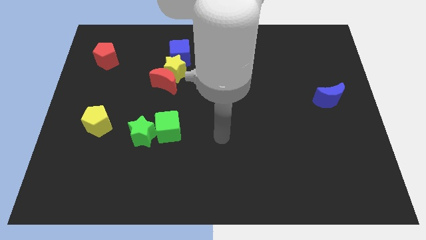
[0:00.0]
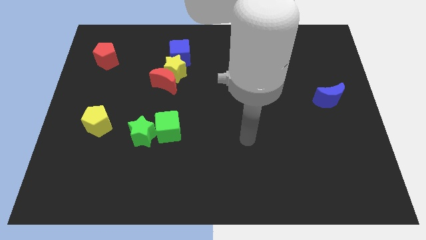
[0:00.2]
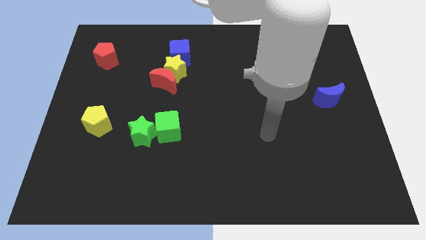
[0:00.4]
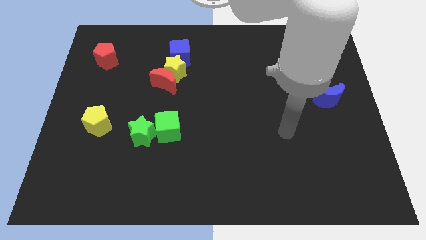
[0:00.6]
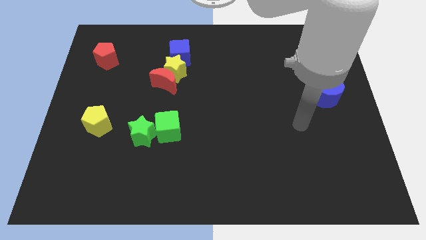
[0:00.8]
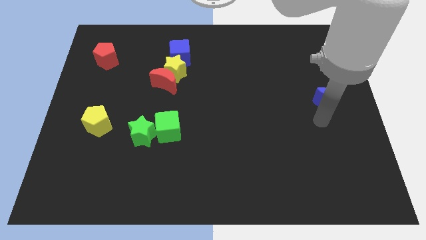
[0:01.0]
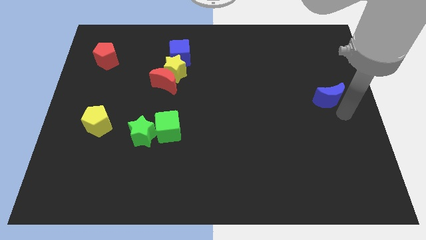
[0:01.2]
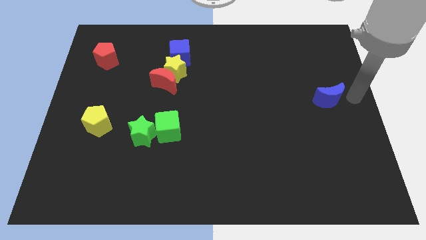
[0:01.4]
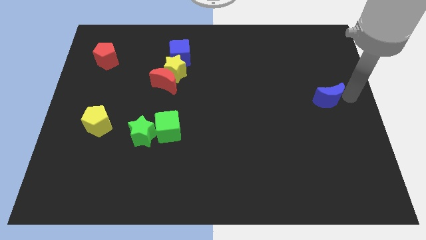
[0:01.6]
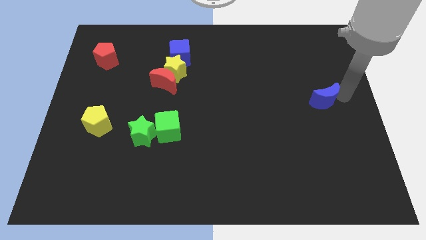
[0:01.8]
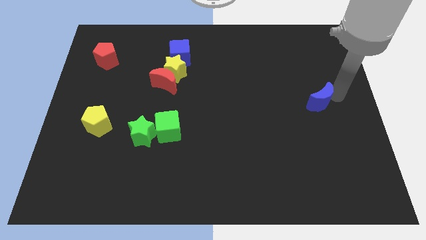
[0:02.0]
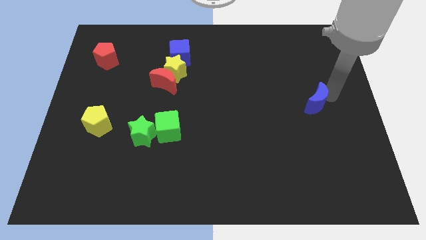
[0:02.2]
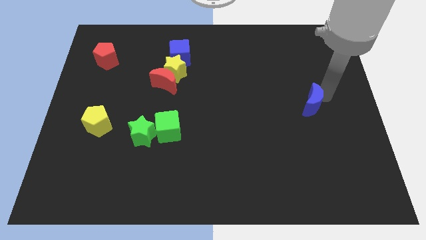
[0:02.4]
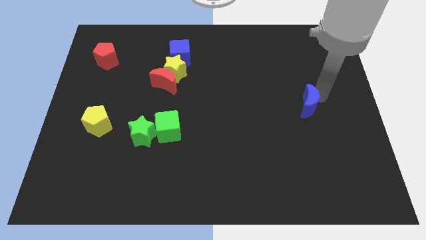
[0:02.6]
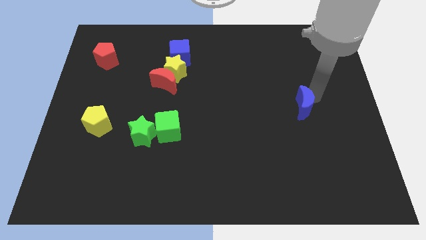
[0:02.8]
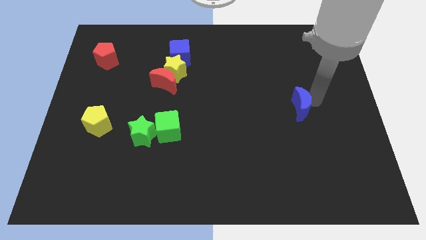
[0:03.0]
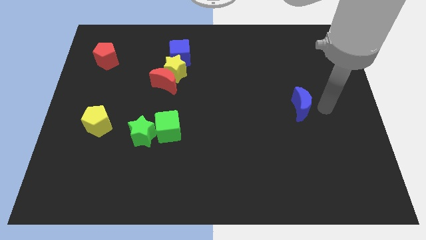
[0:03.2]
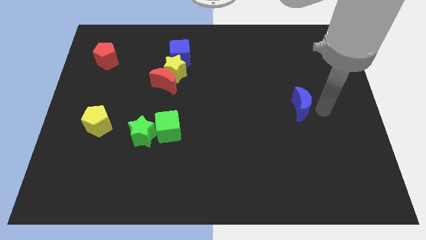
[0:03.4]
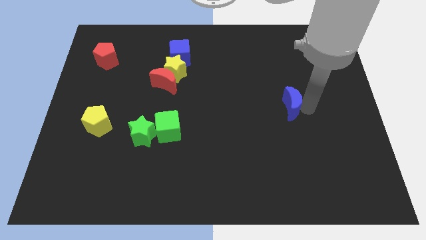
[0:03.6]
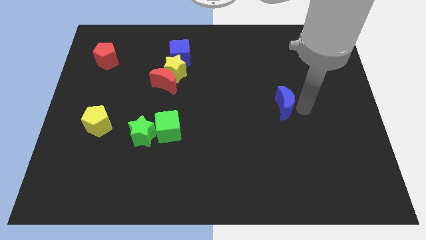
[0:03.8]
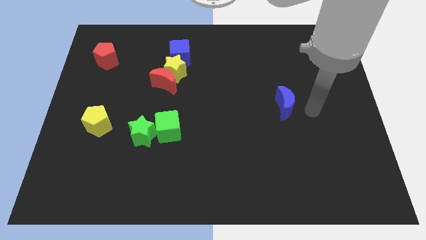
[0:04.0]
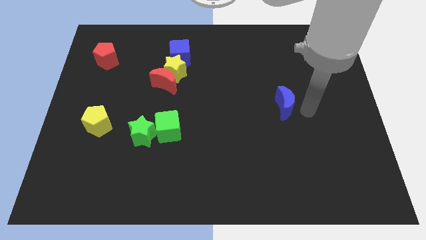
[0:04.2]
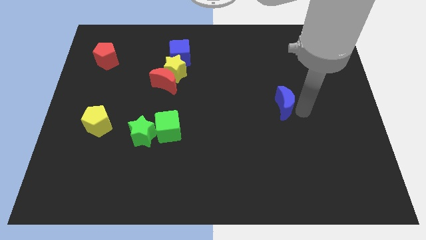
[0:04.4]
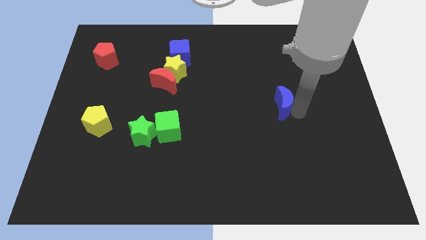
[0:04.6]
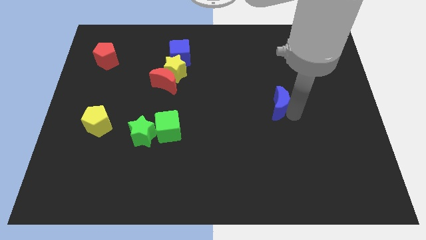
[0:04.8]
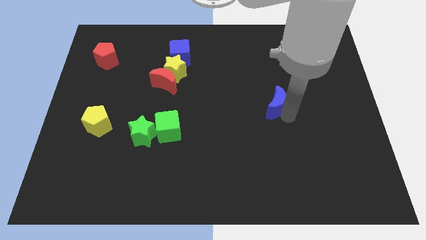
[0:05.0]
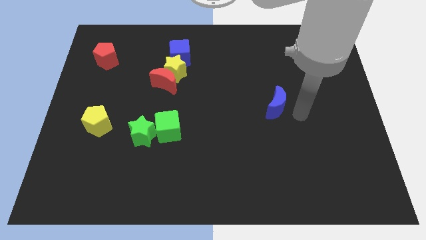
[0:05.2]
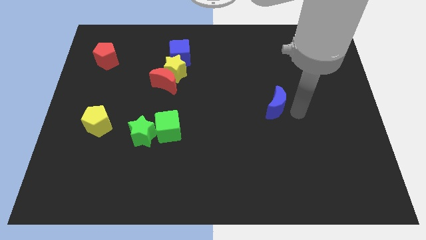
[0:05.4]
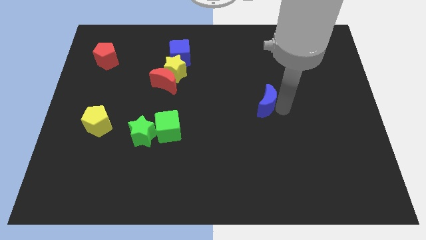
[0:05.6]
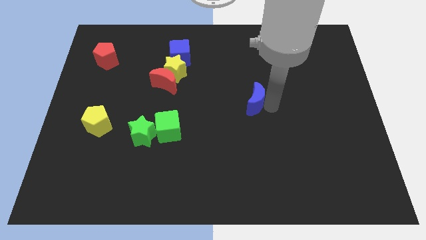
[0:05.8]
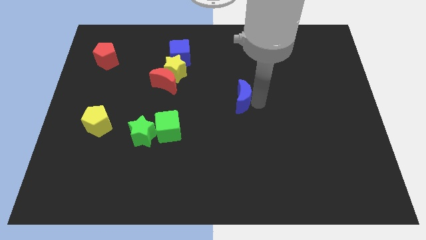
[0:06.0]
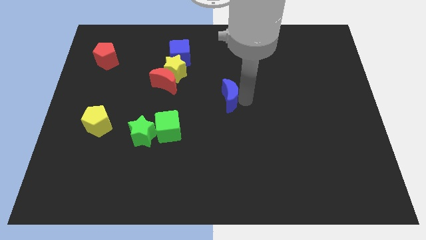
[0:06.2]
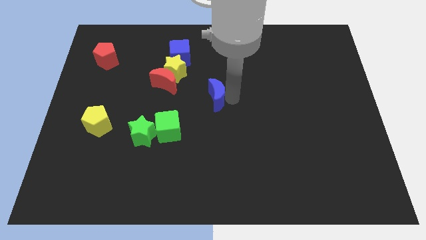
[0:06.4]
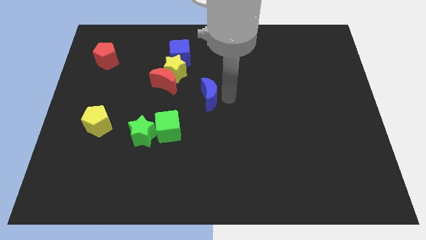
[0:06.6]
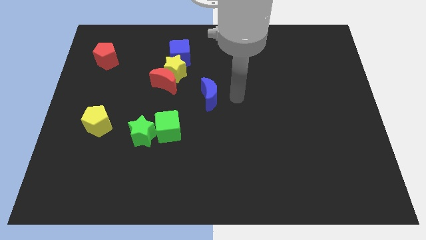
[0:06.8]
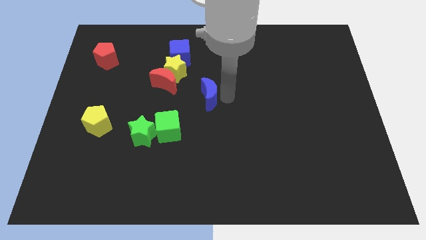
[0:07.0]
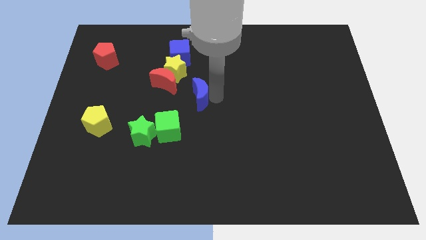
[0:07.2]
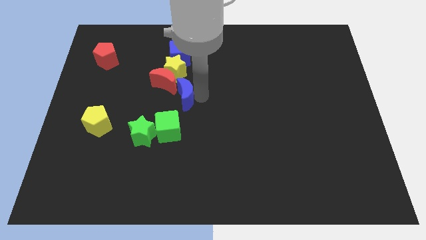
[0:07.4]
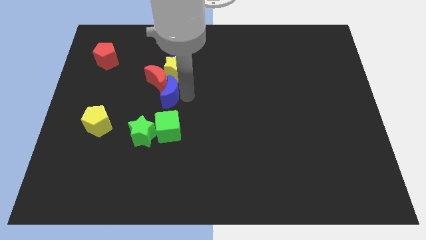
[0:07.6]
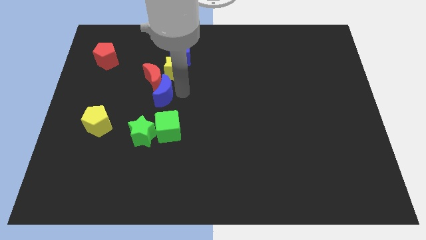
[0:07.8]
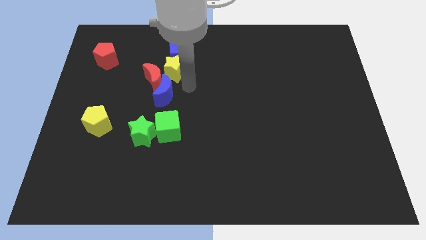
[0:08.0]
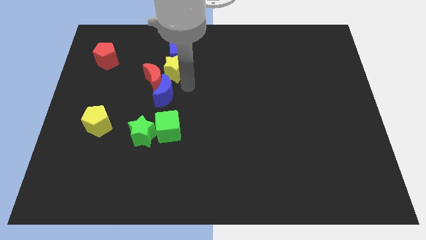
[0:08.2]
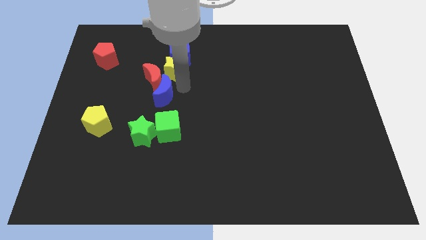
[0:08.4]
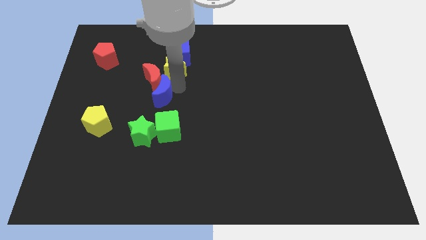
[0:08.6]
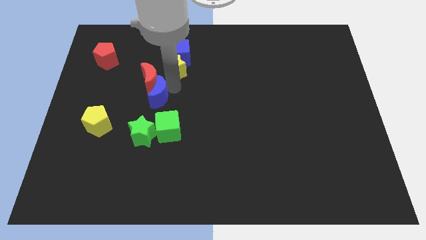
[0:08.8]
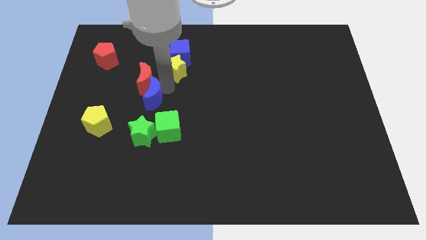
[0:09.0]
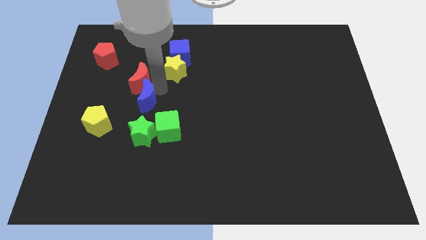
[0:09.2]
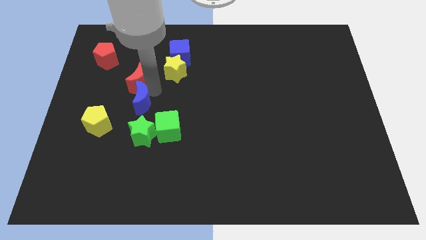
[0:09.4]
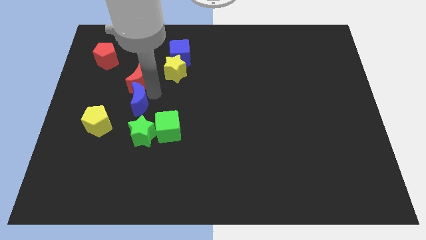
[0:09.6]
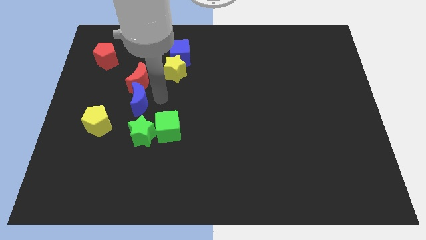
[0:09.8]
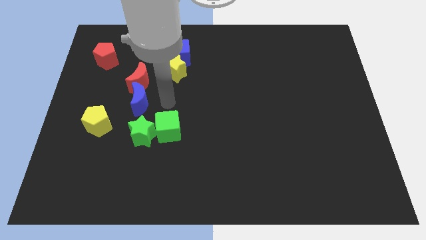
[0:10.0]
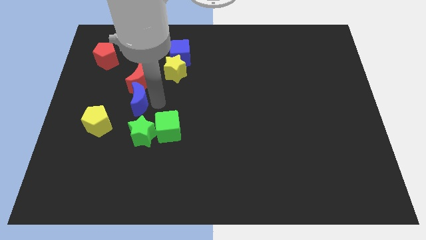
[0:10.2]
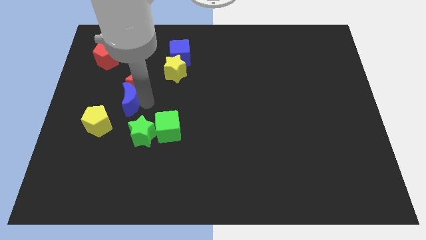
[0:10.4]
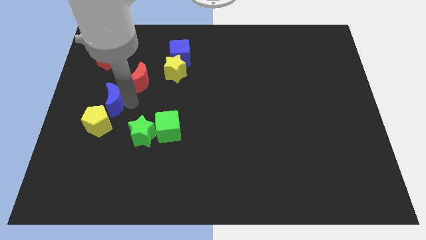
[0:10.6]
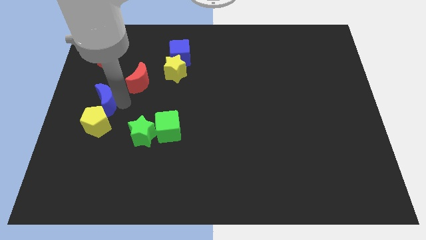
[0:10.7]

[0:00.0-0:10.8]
push the blue moon to the center left

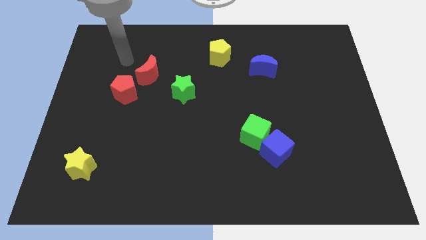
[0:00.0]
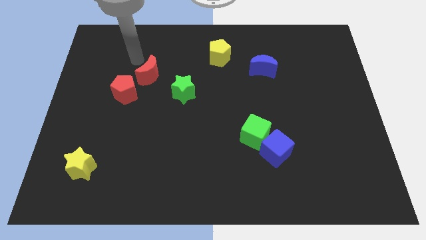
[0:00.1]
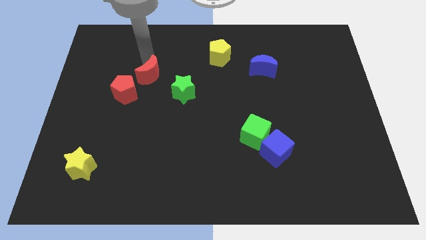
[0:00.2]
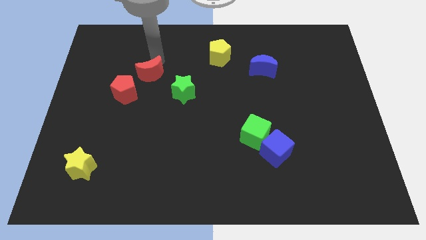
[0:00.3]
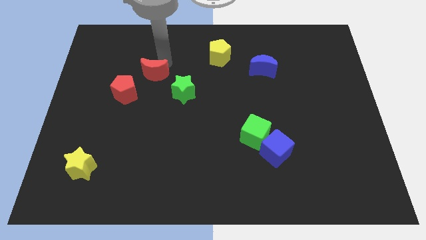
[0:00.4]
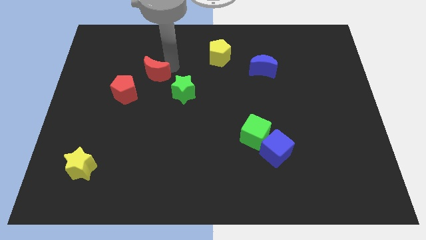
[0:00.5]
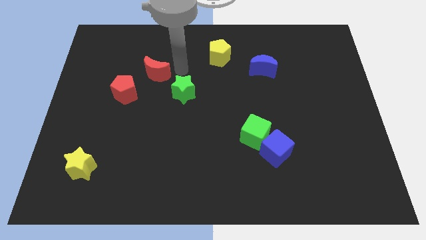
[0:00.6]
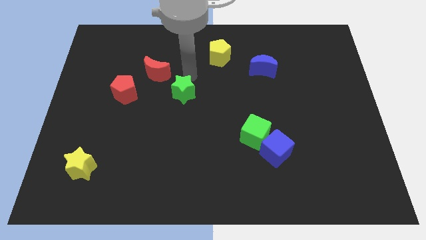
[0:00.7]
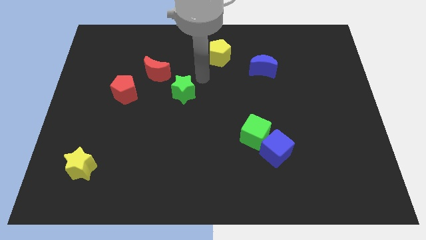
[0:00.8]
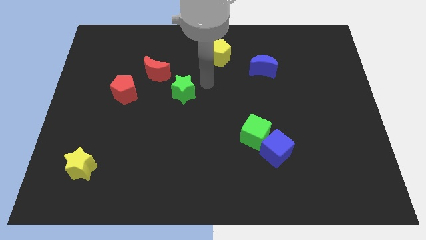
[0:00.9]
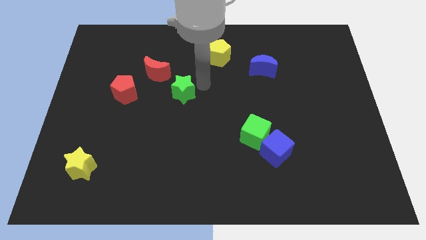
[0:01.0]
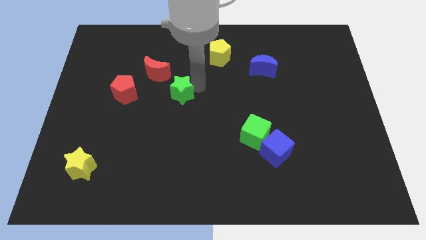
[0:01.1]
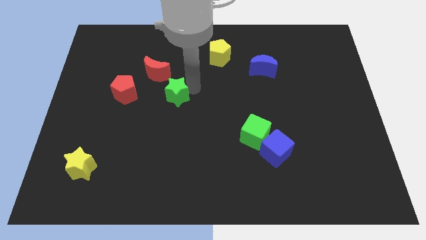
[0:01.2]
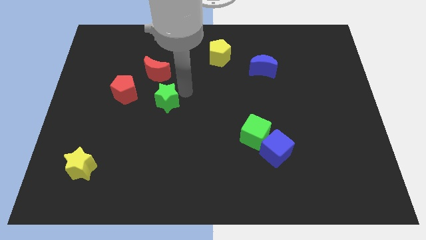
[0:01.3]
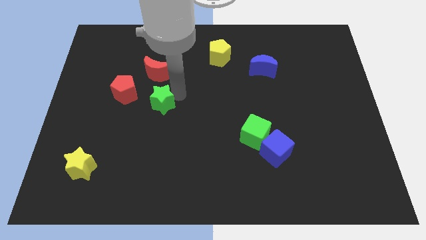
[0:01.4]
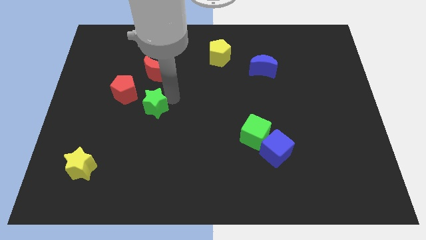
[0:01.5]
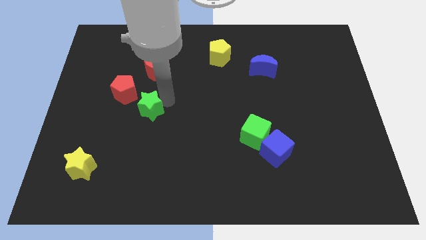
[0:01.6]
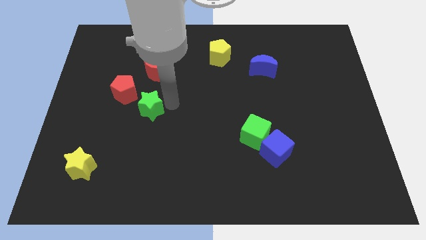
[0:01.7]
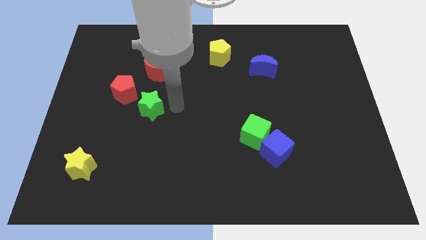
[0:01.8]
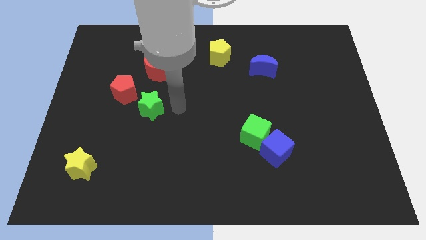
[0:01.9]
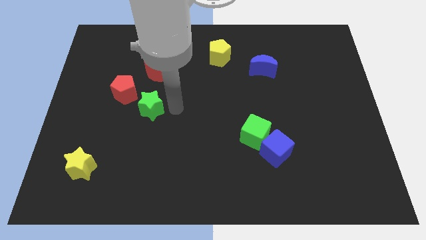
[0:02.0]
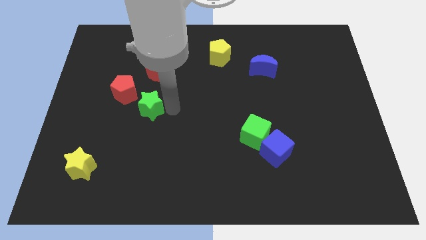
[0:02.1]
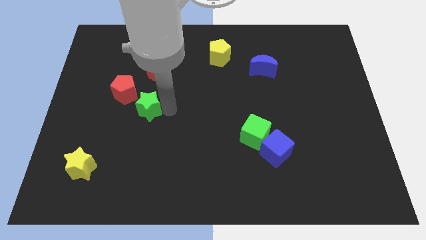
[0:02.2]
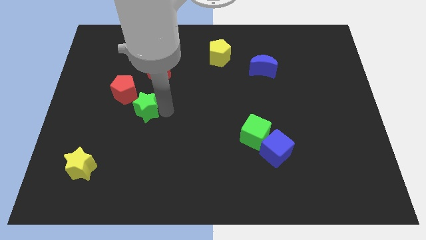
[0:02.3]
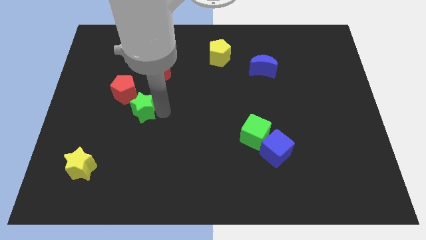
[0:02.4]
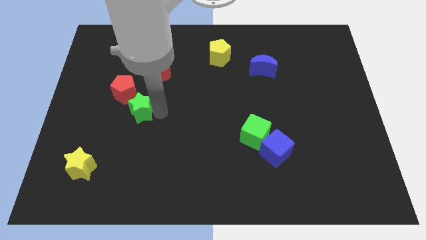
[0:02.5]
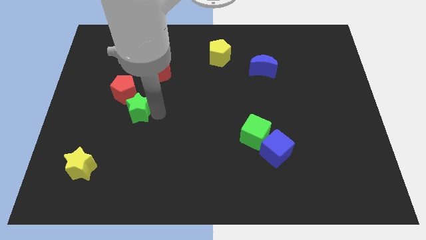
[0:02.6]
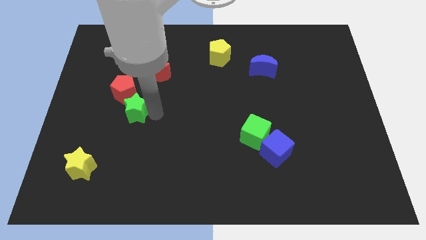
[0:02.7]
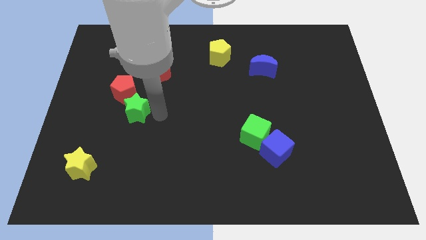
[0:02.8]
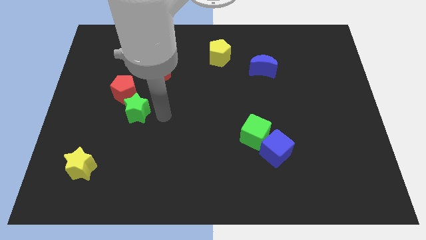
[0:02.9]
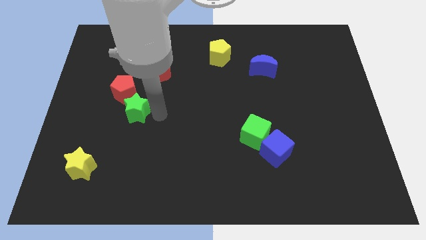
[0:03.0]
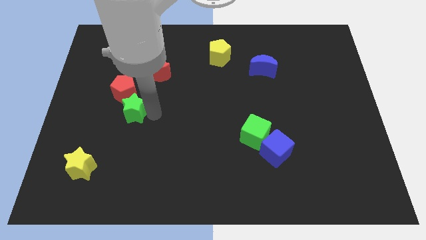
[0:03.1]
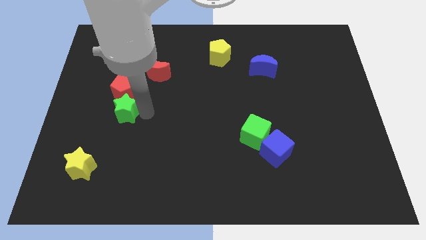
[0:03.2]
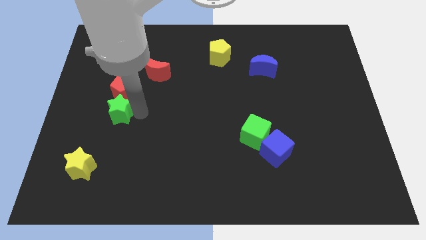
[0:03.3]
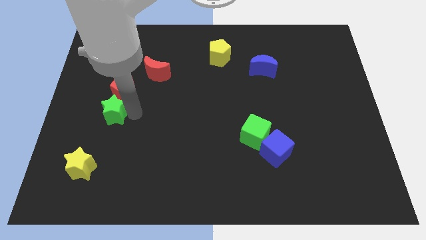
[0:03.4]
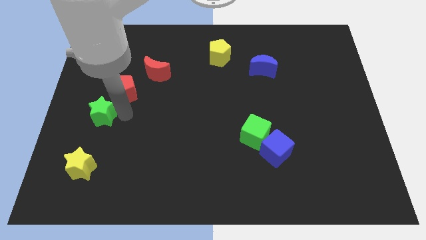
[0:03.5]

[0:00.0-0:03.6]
put the green star to the center left
